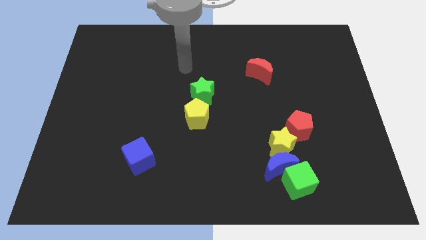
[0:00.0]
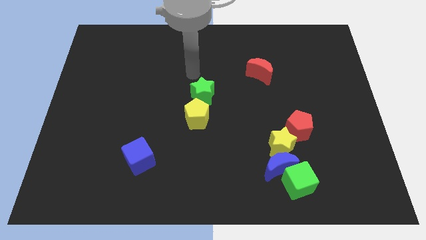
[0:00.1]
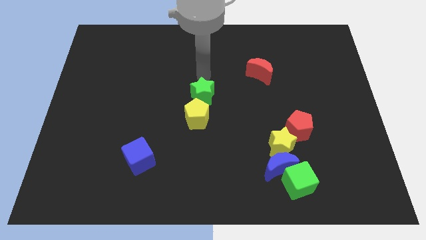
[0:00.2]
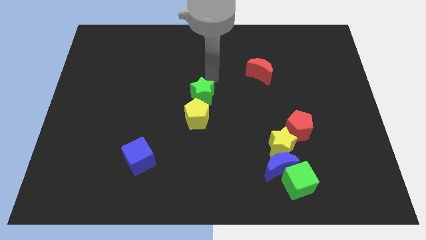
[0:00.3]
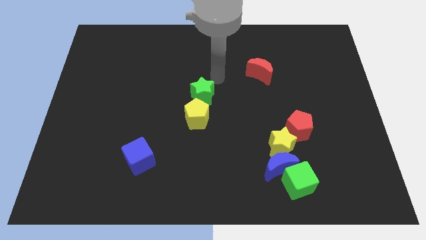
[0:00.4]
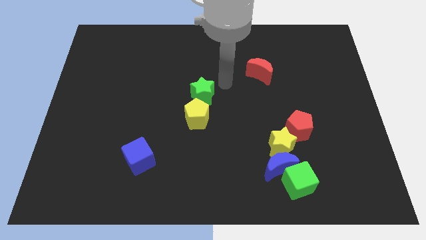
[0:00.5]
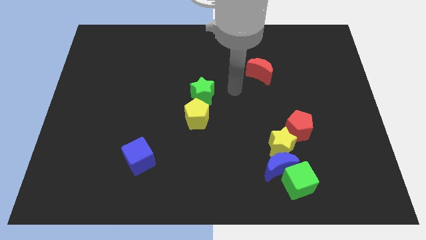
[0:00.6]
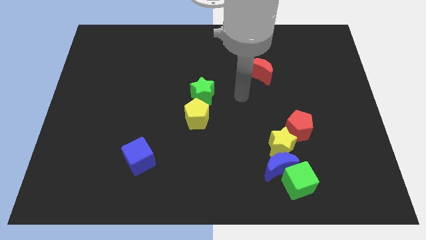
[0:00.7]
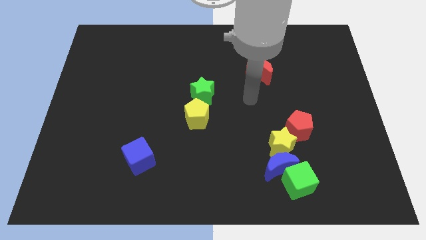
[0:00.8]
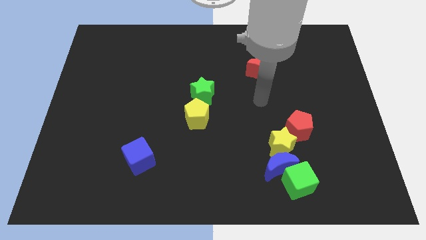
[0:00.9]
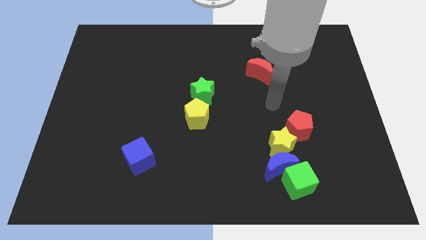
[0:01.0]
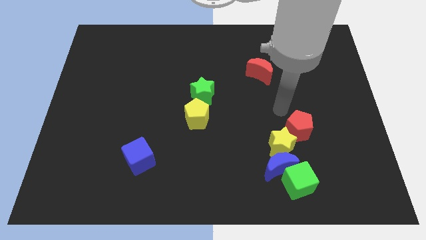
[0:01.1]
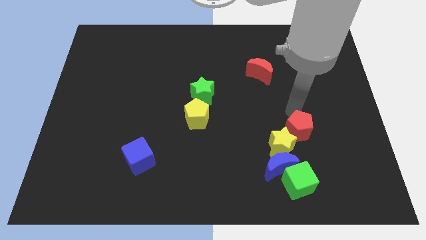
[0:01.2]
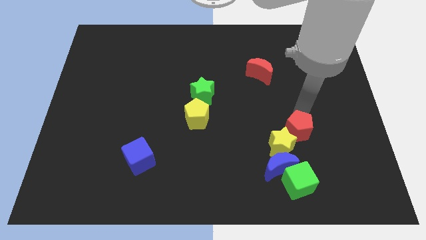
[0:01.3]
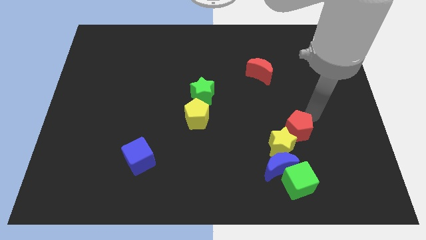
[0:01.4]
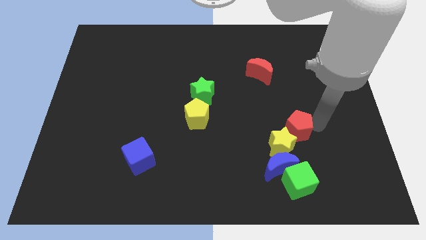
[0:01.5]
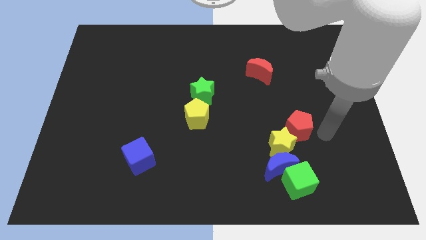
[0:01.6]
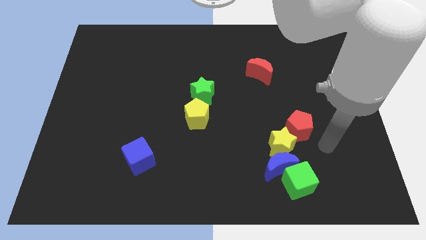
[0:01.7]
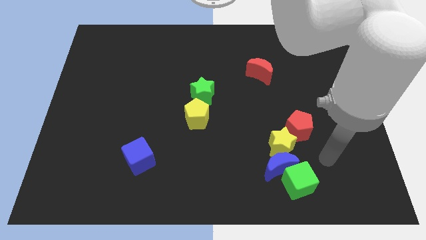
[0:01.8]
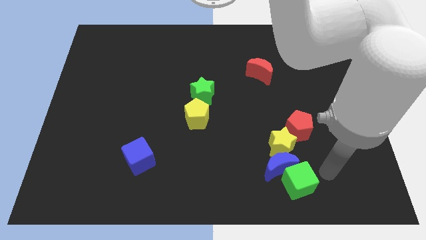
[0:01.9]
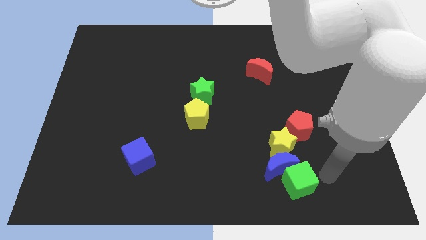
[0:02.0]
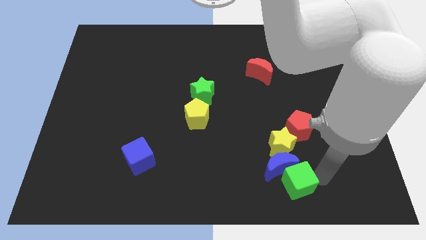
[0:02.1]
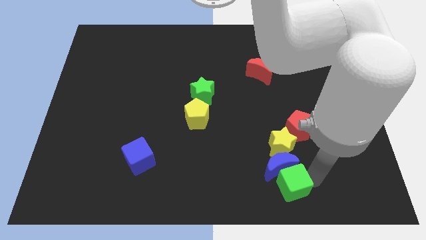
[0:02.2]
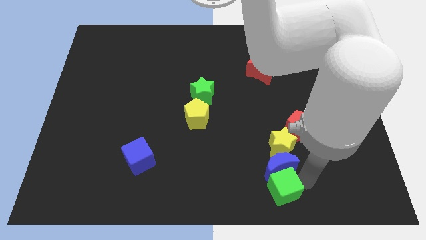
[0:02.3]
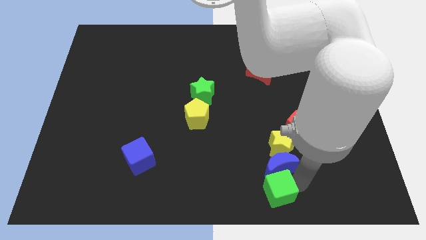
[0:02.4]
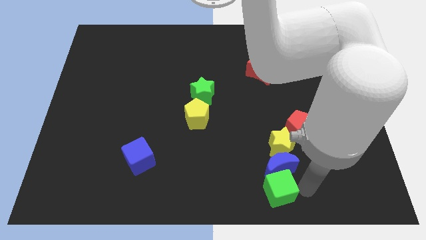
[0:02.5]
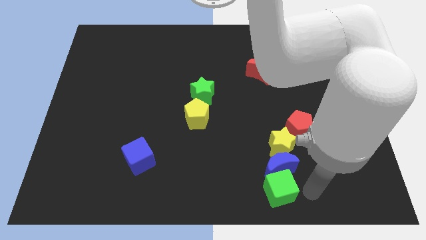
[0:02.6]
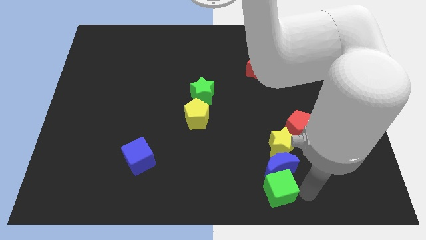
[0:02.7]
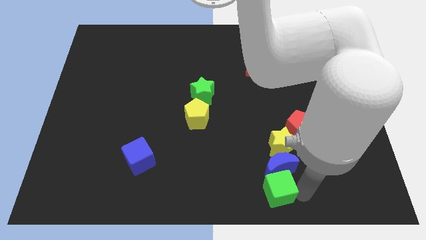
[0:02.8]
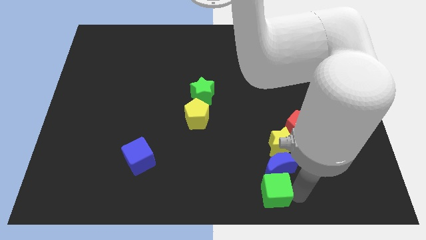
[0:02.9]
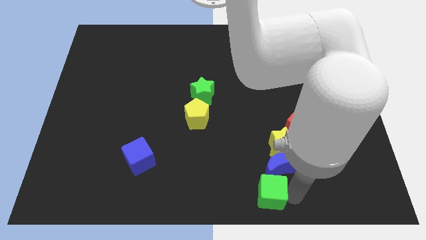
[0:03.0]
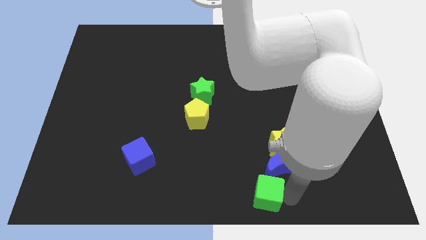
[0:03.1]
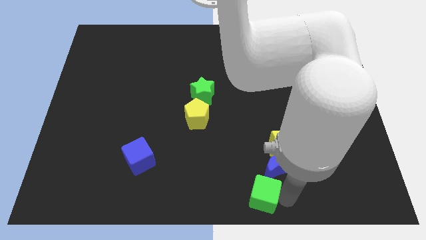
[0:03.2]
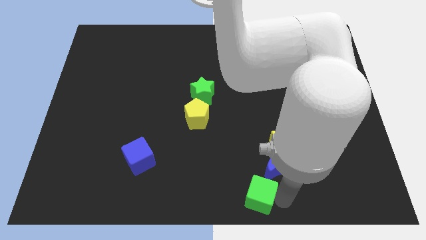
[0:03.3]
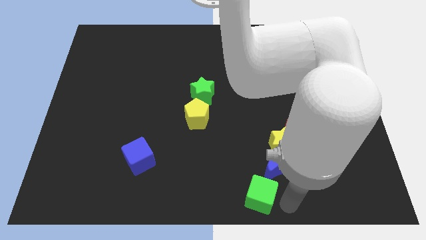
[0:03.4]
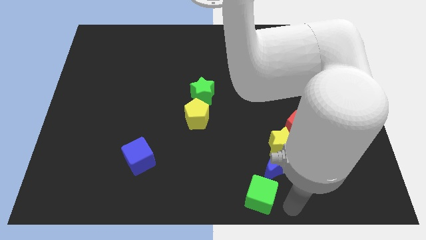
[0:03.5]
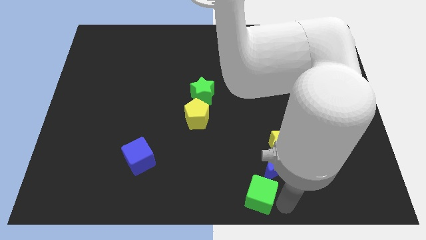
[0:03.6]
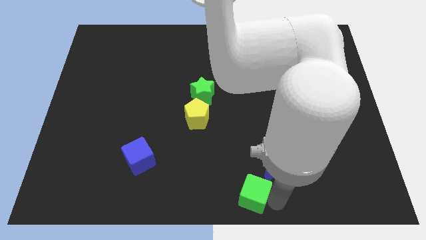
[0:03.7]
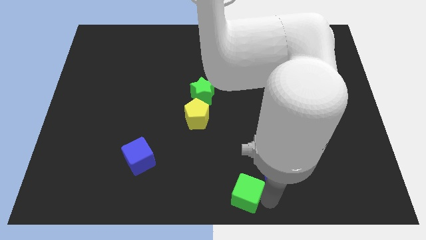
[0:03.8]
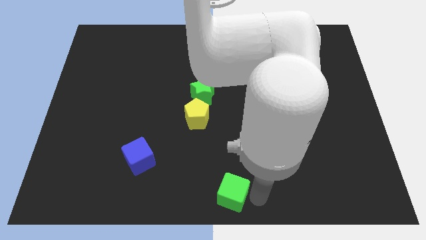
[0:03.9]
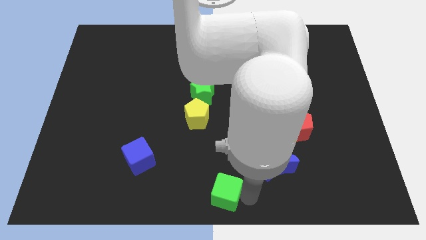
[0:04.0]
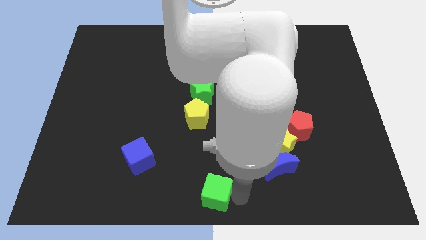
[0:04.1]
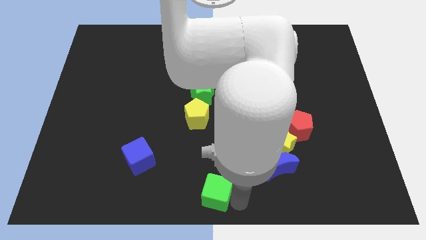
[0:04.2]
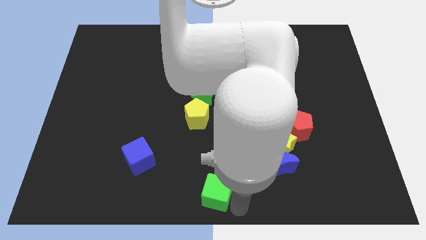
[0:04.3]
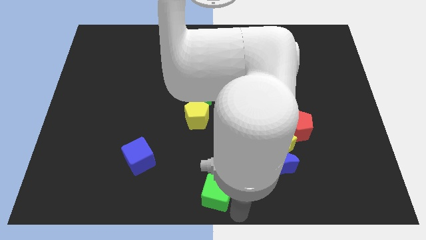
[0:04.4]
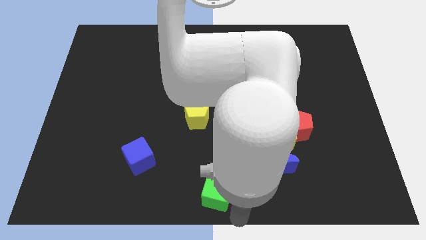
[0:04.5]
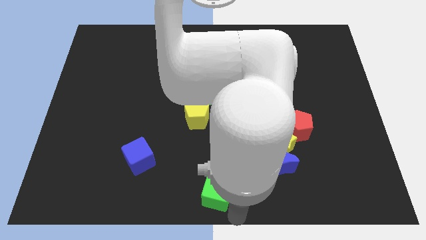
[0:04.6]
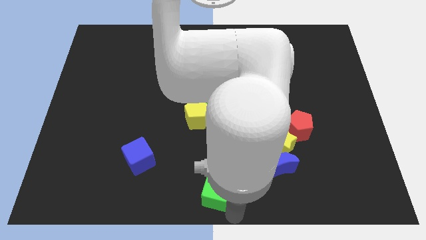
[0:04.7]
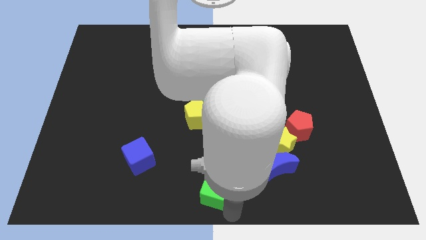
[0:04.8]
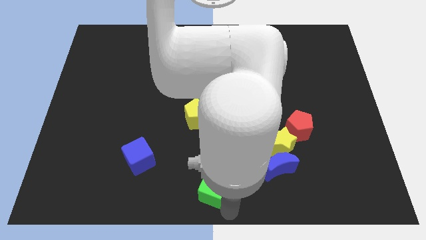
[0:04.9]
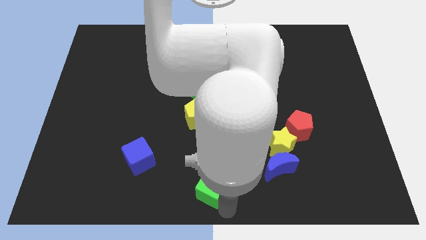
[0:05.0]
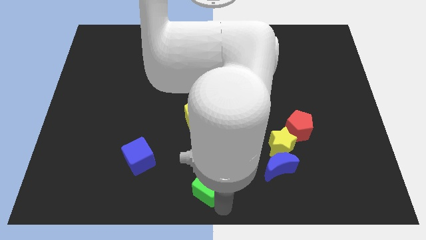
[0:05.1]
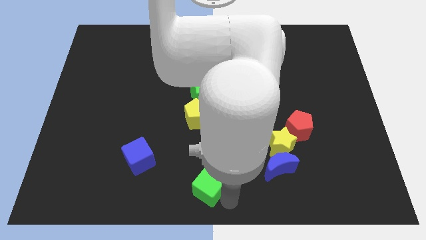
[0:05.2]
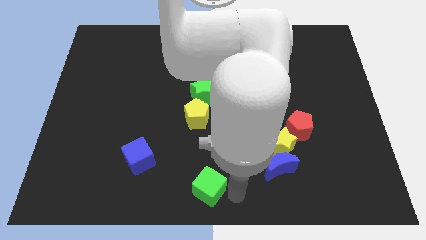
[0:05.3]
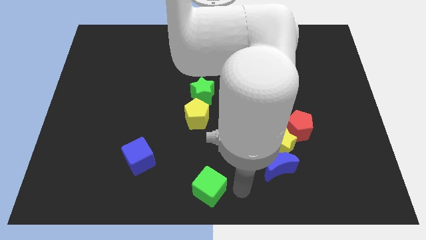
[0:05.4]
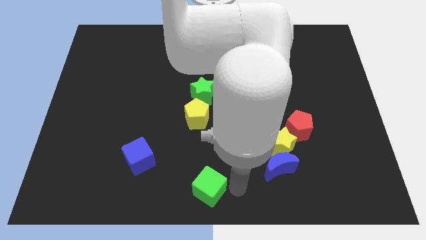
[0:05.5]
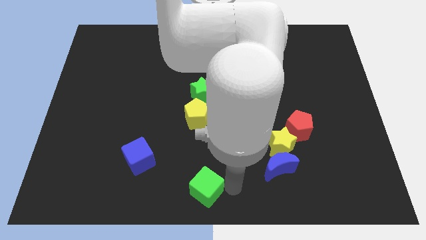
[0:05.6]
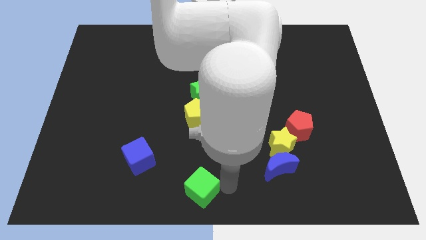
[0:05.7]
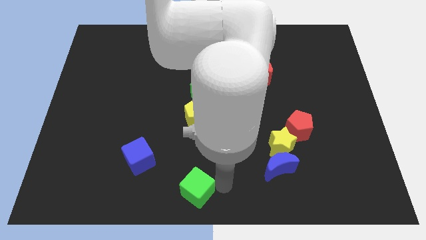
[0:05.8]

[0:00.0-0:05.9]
move the green cube left

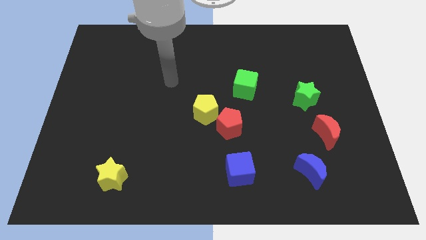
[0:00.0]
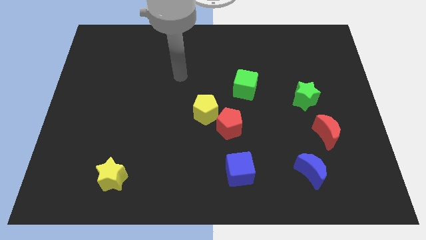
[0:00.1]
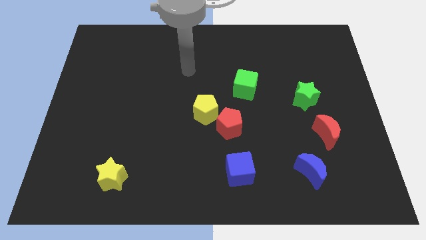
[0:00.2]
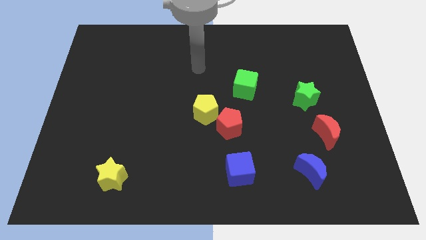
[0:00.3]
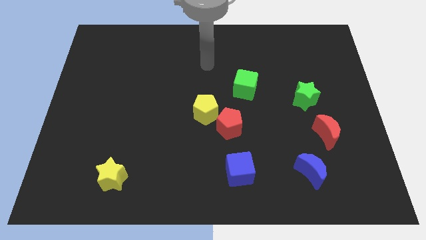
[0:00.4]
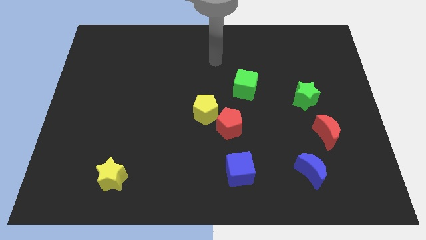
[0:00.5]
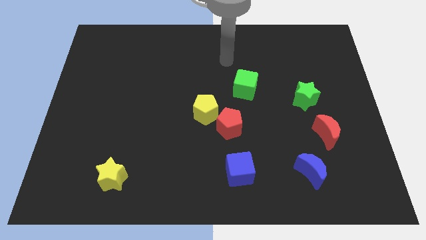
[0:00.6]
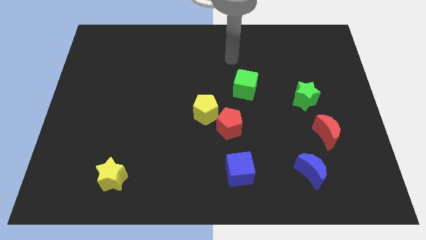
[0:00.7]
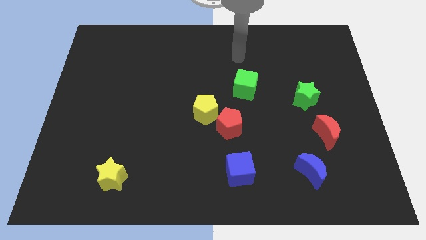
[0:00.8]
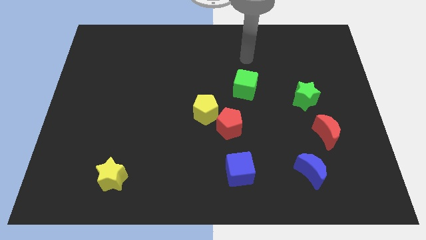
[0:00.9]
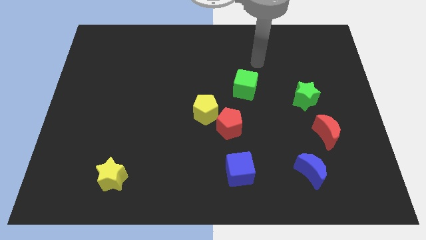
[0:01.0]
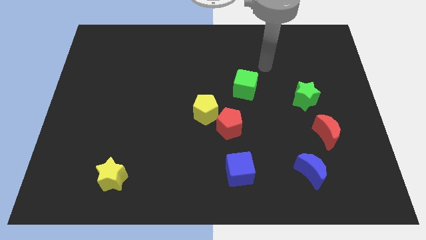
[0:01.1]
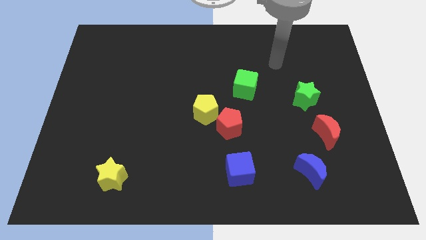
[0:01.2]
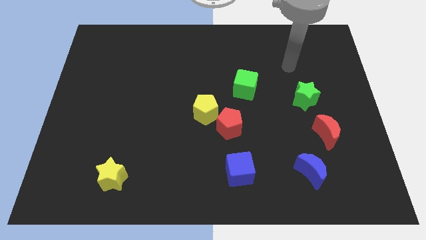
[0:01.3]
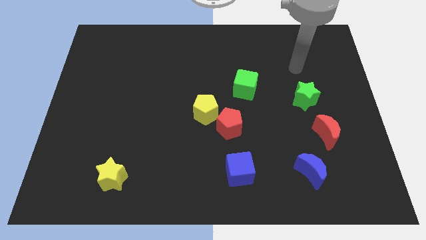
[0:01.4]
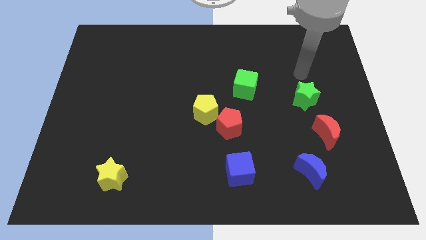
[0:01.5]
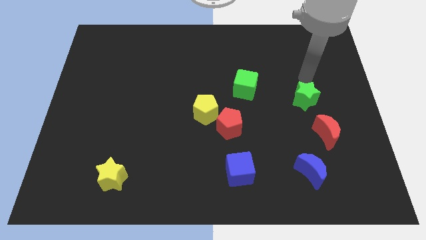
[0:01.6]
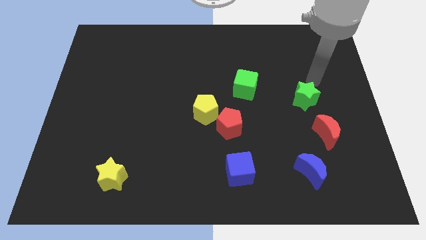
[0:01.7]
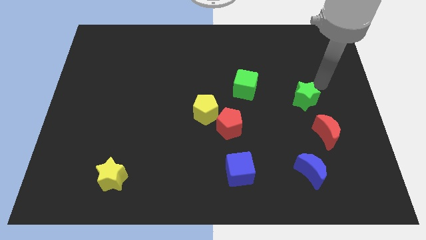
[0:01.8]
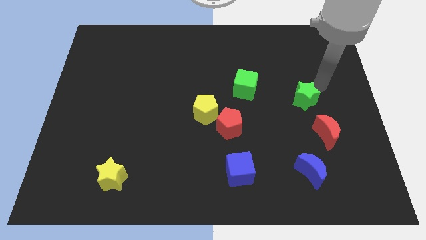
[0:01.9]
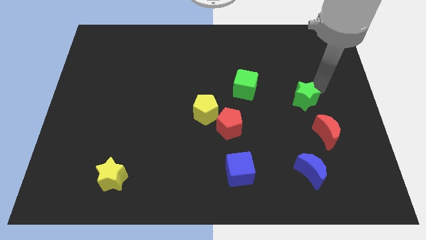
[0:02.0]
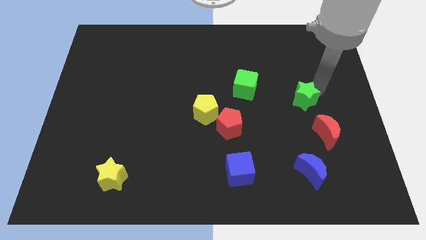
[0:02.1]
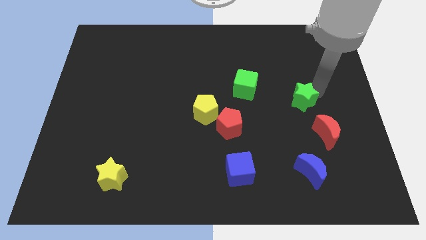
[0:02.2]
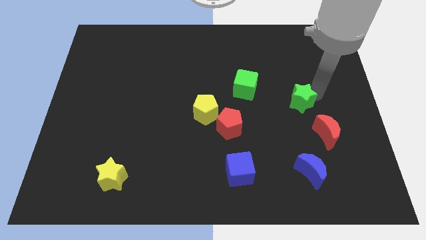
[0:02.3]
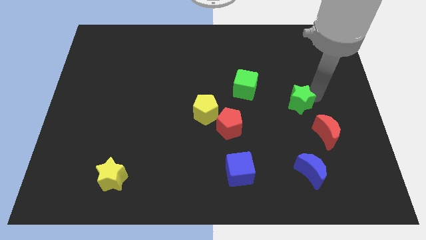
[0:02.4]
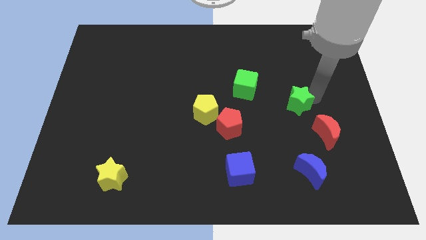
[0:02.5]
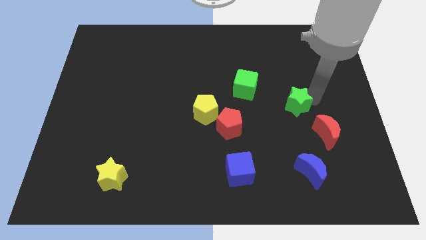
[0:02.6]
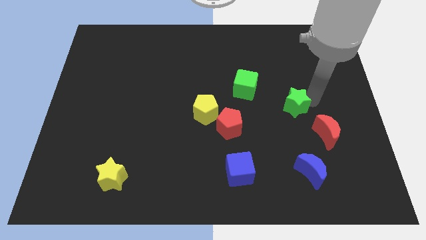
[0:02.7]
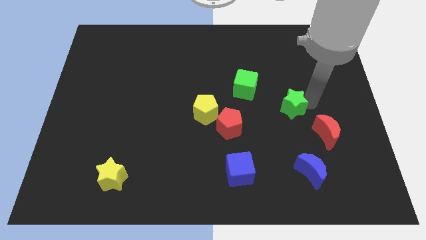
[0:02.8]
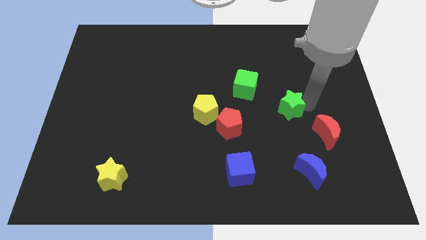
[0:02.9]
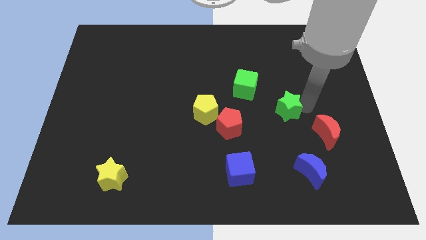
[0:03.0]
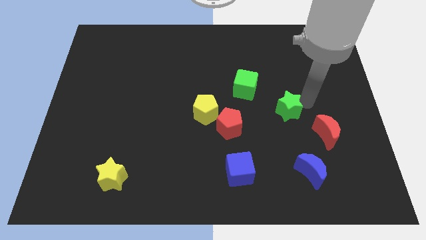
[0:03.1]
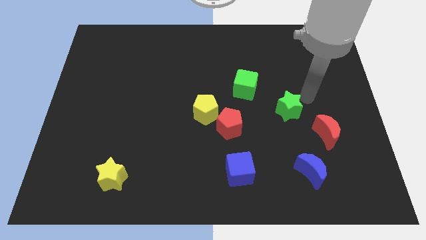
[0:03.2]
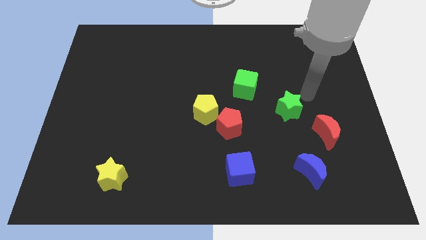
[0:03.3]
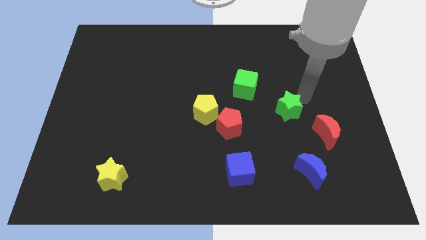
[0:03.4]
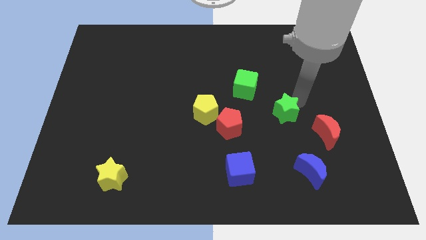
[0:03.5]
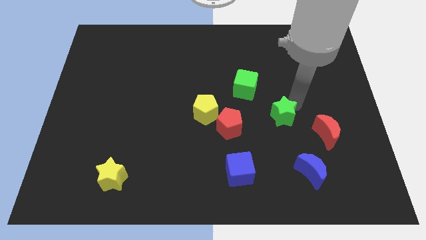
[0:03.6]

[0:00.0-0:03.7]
move the green star diagonally down and to the left a little
